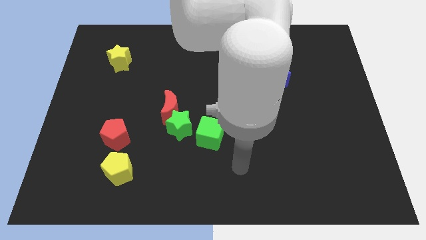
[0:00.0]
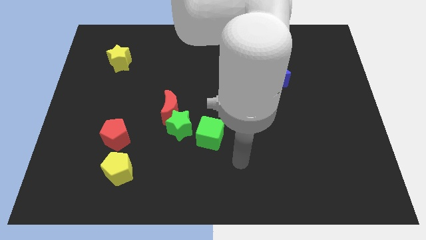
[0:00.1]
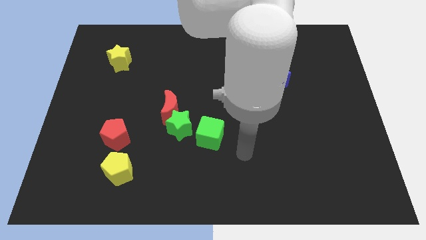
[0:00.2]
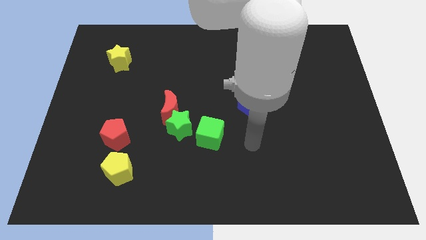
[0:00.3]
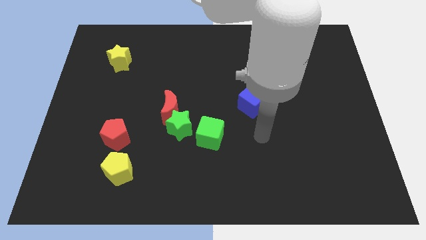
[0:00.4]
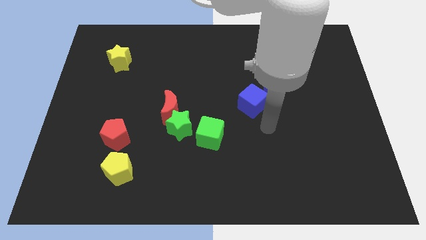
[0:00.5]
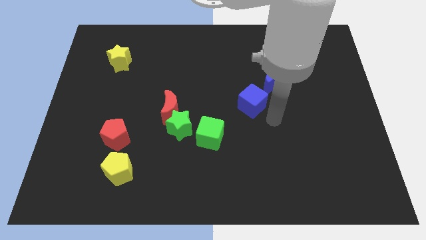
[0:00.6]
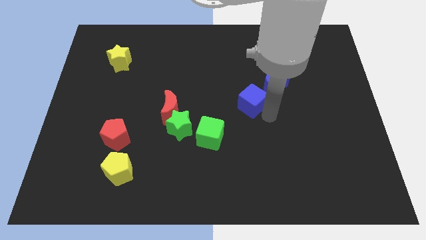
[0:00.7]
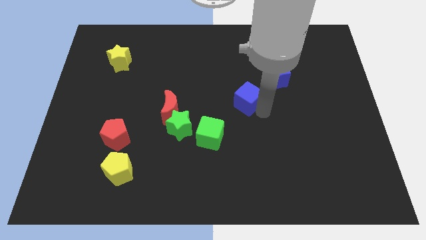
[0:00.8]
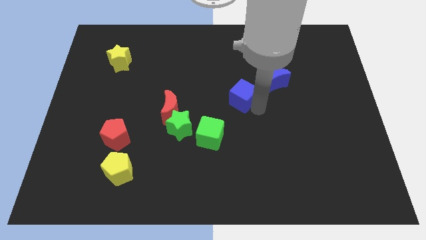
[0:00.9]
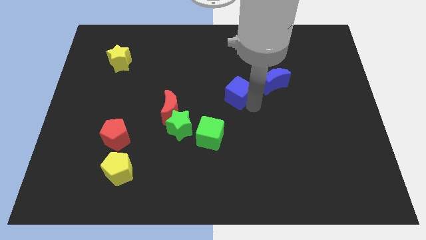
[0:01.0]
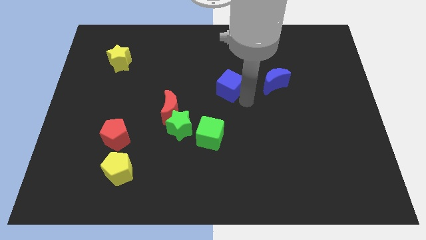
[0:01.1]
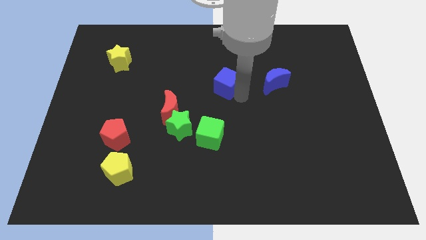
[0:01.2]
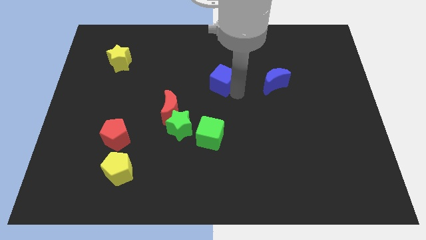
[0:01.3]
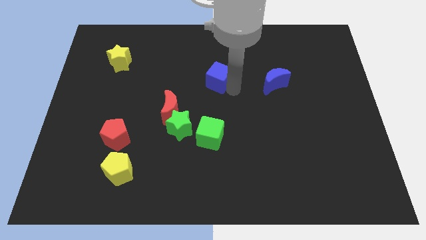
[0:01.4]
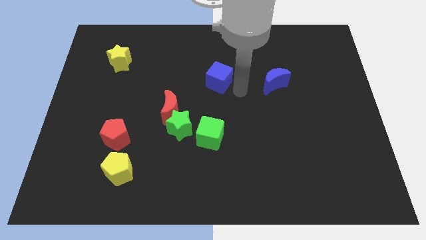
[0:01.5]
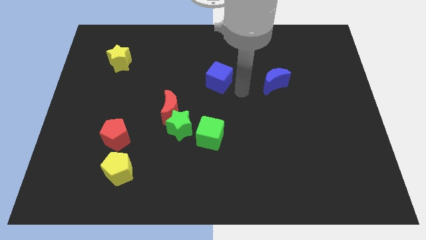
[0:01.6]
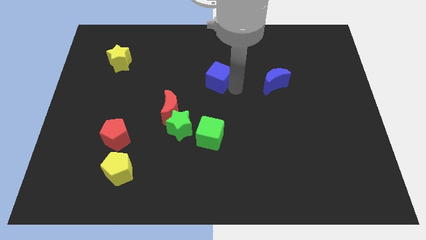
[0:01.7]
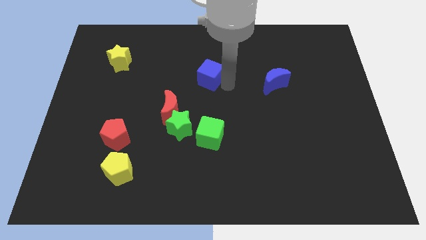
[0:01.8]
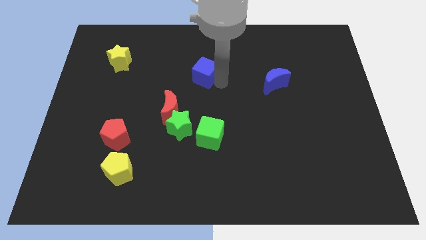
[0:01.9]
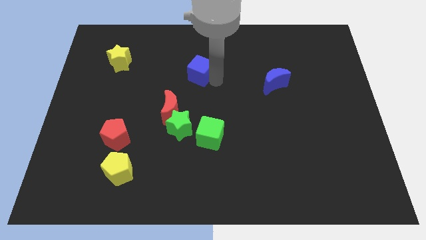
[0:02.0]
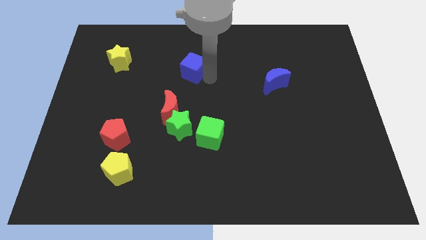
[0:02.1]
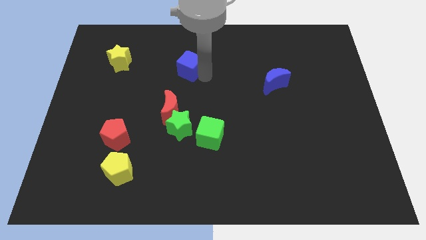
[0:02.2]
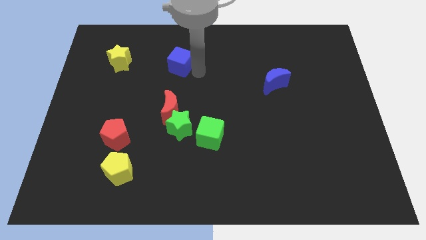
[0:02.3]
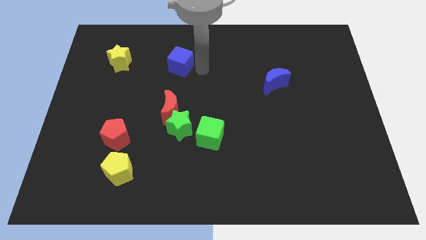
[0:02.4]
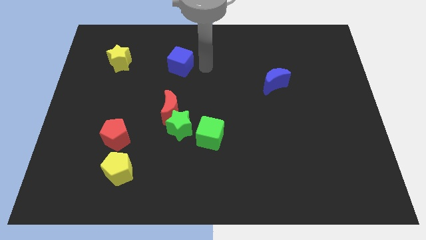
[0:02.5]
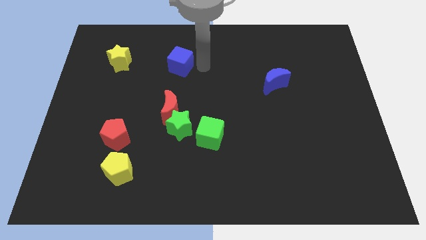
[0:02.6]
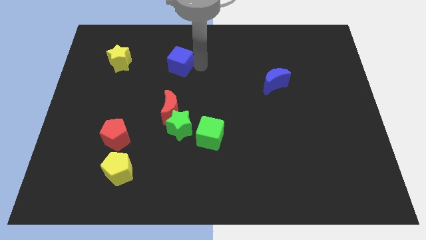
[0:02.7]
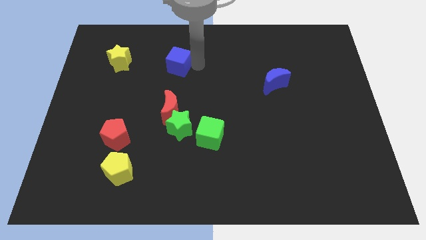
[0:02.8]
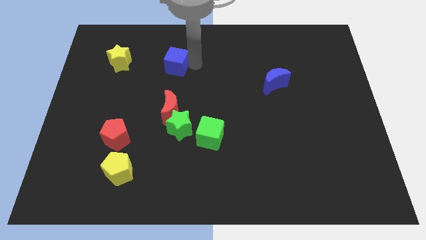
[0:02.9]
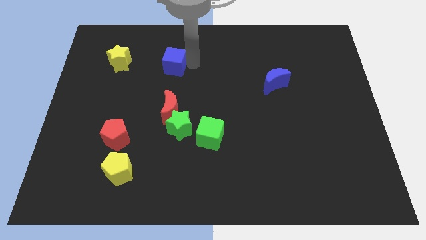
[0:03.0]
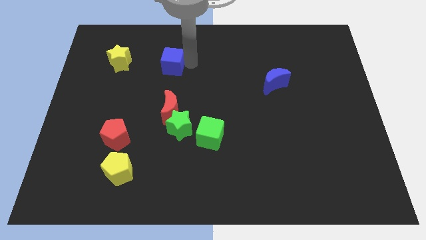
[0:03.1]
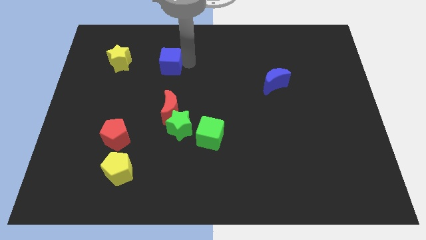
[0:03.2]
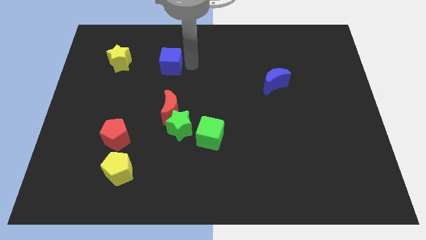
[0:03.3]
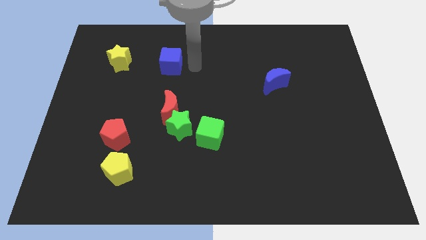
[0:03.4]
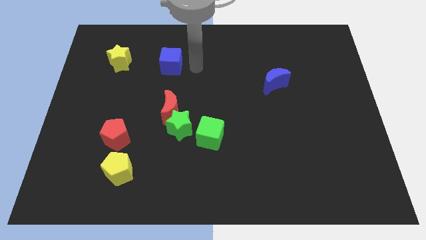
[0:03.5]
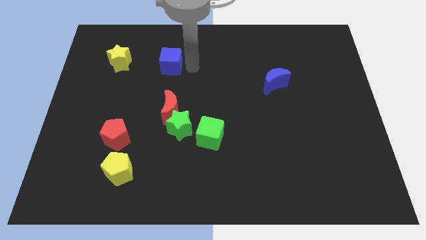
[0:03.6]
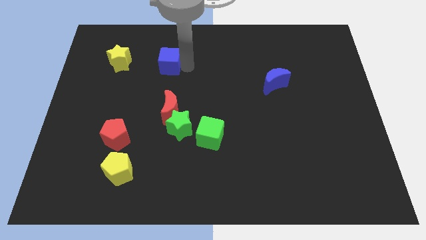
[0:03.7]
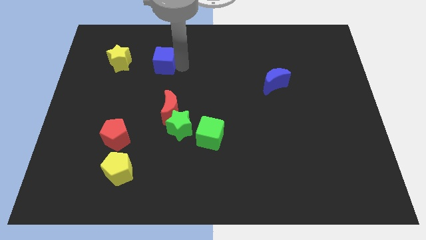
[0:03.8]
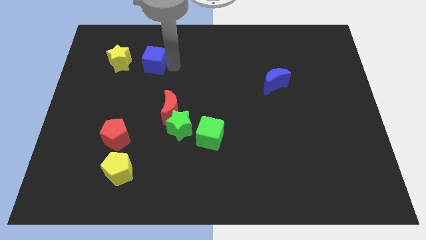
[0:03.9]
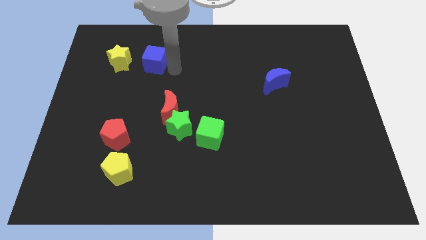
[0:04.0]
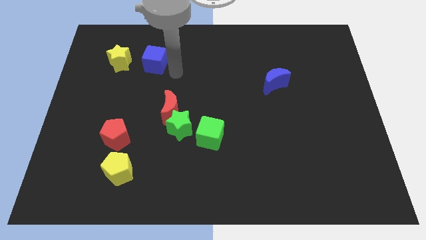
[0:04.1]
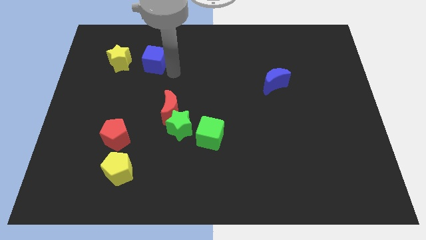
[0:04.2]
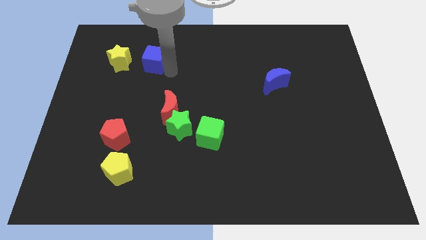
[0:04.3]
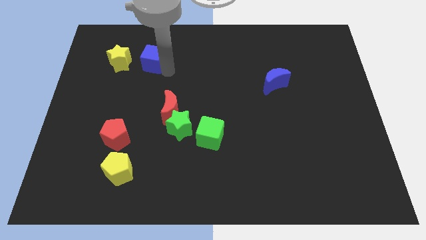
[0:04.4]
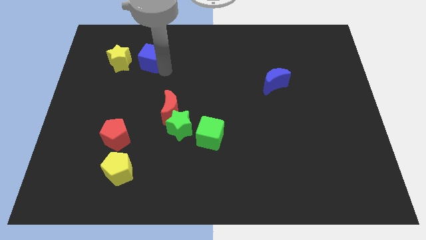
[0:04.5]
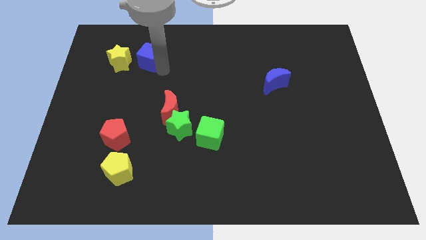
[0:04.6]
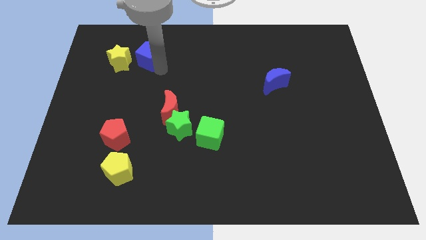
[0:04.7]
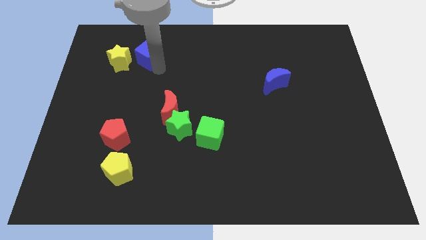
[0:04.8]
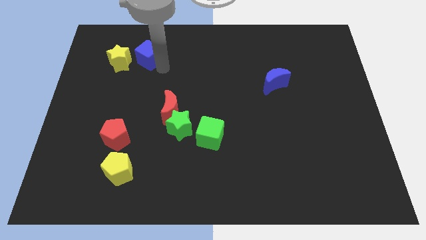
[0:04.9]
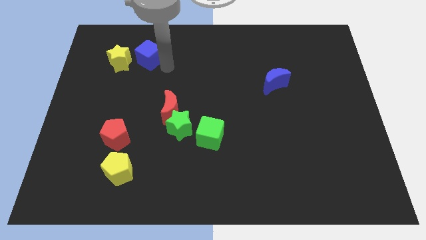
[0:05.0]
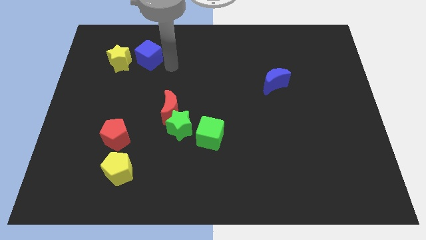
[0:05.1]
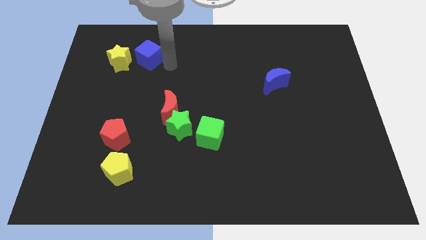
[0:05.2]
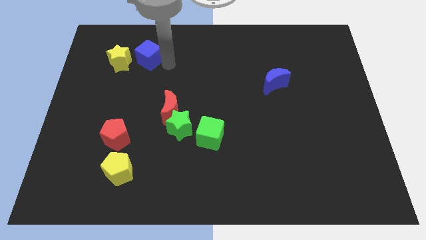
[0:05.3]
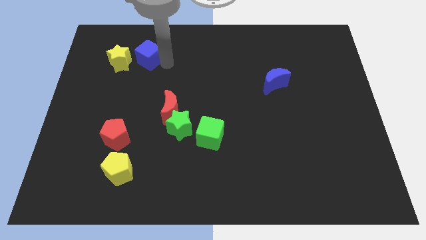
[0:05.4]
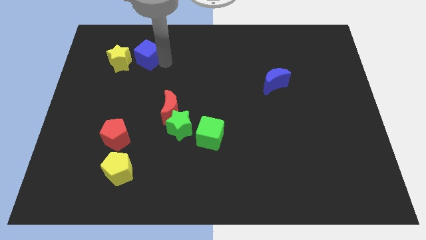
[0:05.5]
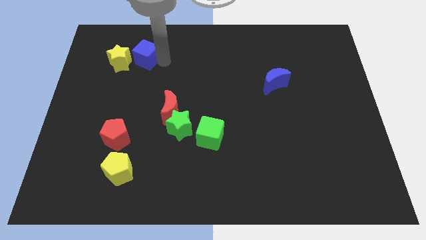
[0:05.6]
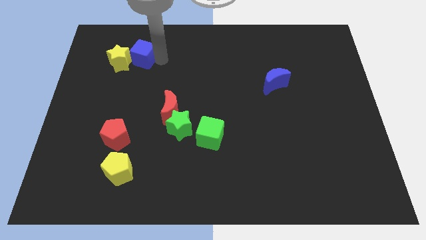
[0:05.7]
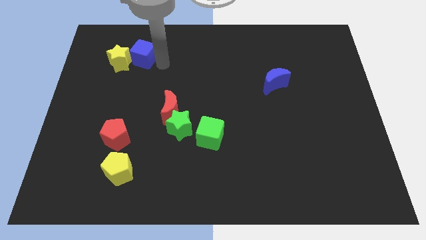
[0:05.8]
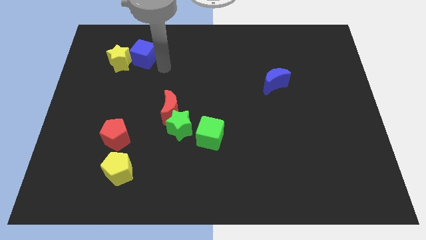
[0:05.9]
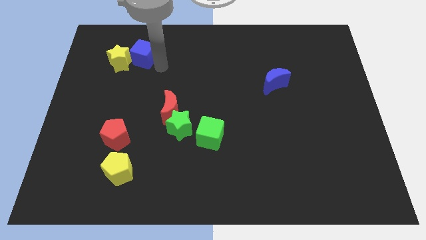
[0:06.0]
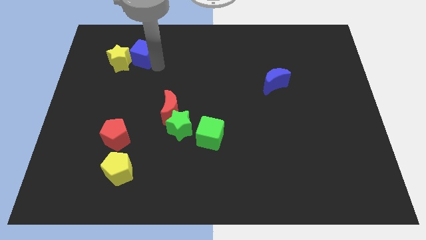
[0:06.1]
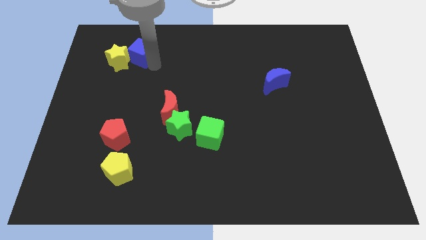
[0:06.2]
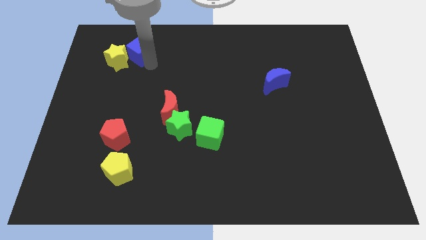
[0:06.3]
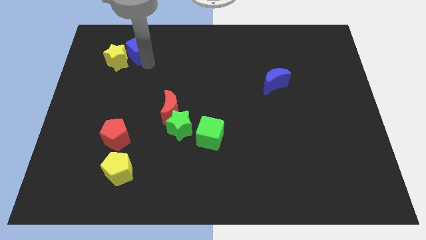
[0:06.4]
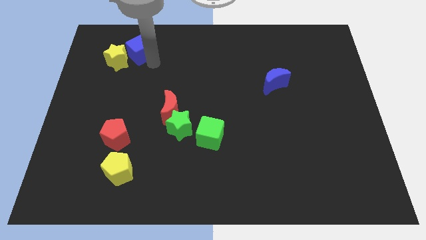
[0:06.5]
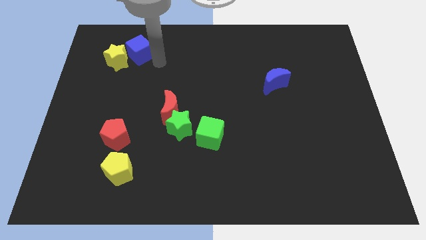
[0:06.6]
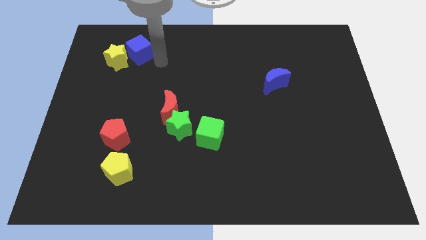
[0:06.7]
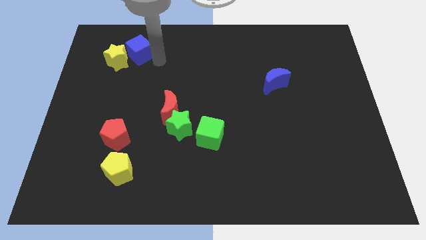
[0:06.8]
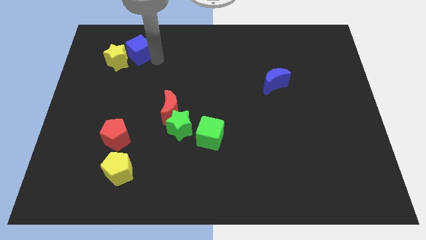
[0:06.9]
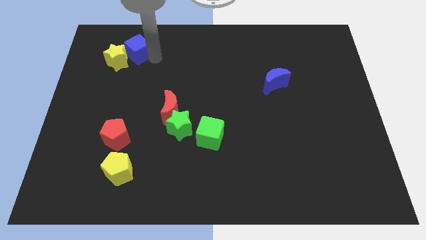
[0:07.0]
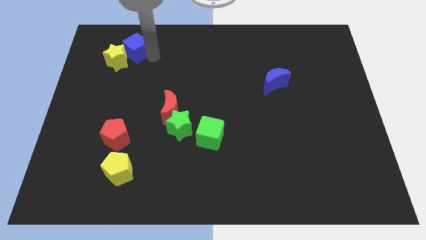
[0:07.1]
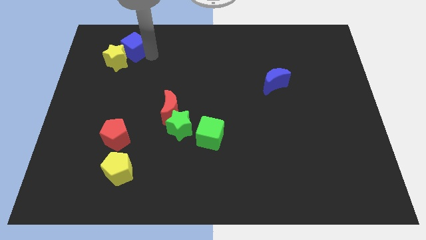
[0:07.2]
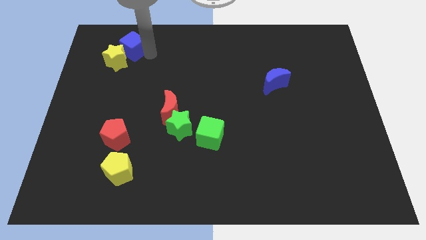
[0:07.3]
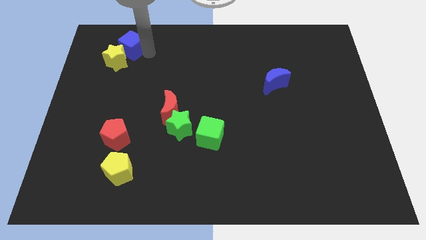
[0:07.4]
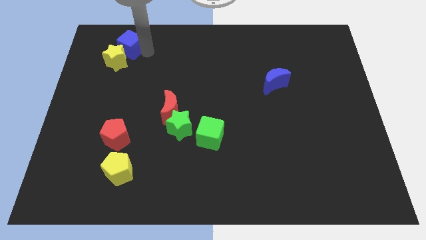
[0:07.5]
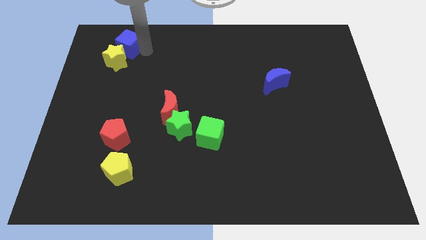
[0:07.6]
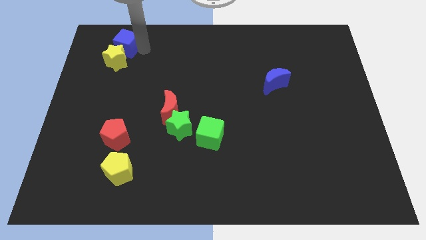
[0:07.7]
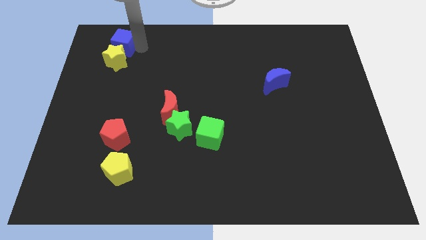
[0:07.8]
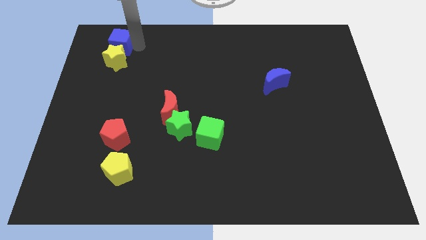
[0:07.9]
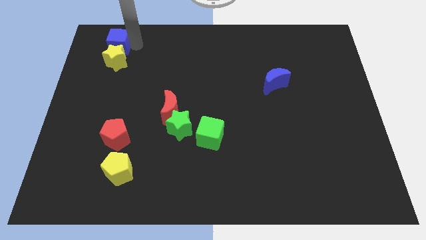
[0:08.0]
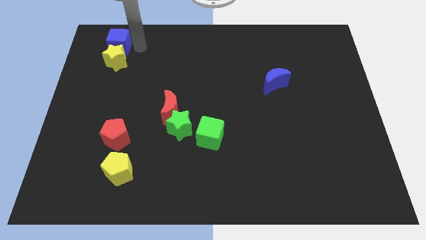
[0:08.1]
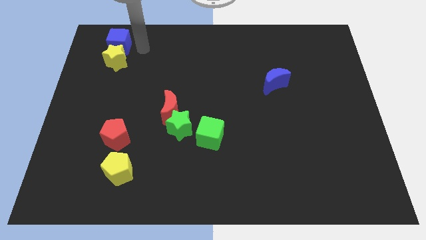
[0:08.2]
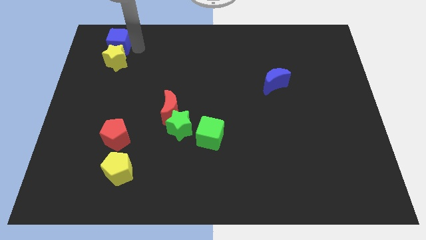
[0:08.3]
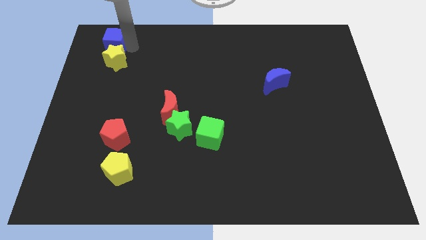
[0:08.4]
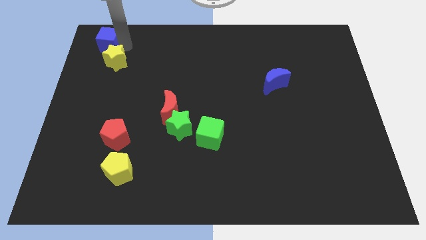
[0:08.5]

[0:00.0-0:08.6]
slide the blue cube to the top left corner
